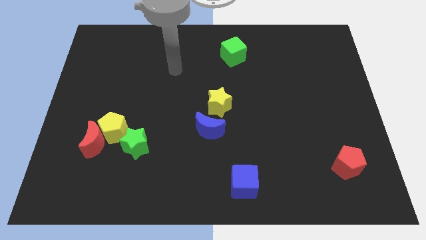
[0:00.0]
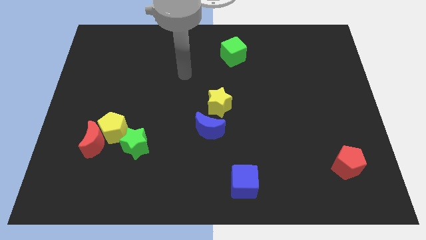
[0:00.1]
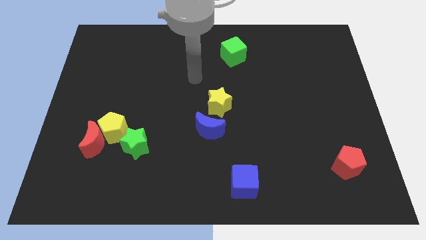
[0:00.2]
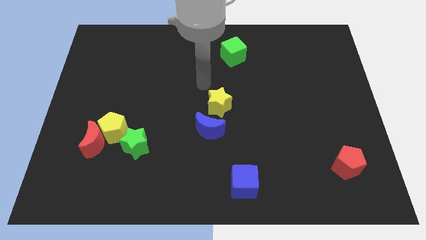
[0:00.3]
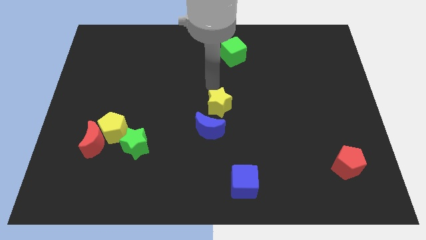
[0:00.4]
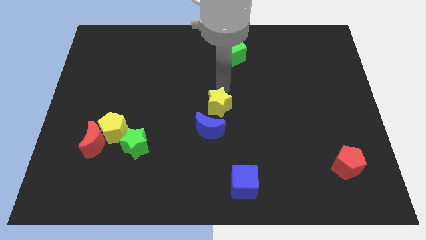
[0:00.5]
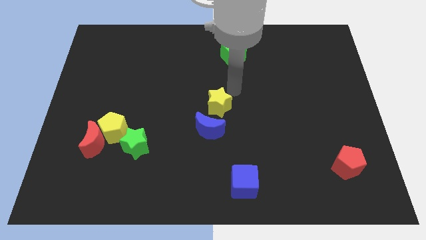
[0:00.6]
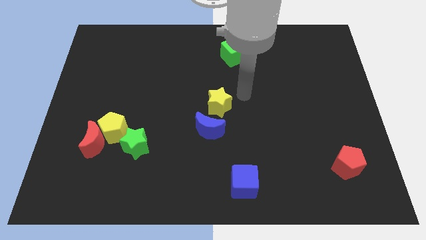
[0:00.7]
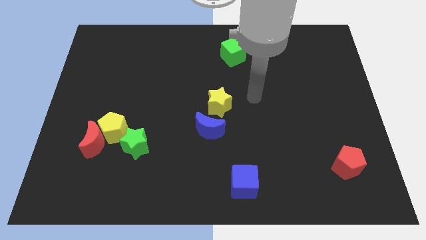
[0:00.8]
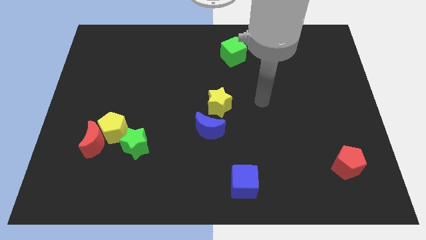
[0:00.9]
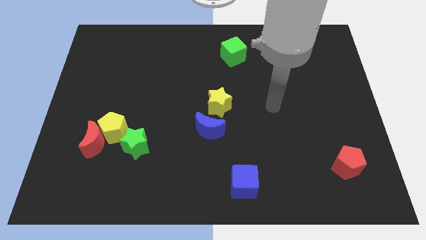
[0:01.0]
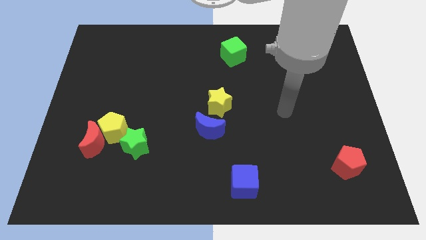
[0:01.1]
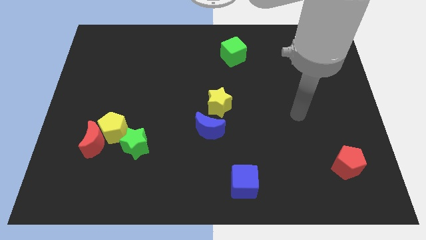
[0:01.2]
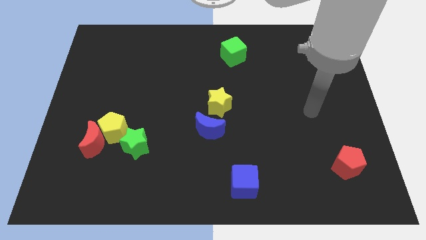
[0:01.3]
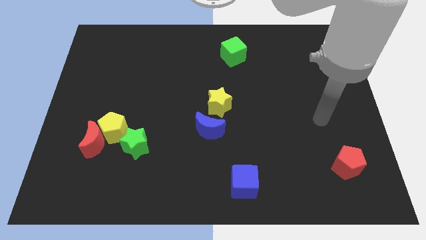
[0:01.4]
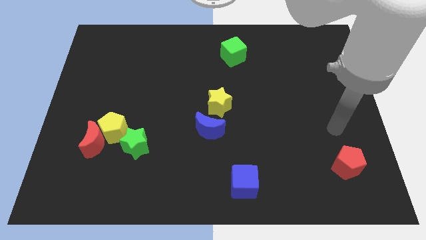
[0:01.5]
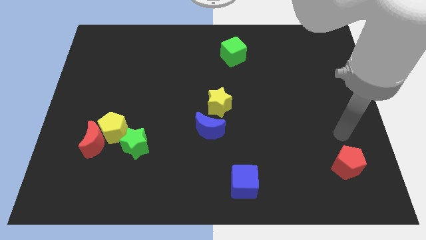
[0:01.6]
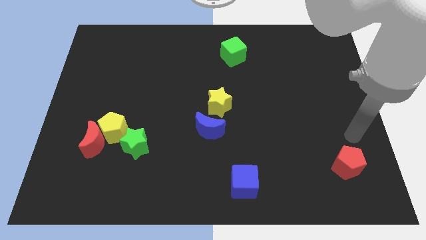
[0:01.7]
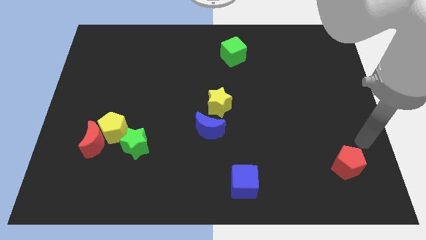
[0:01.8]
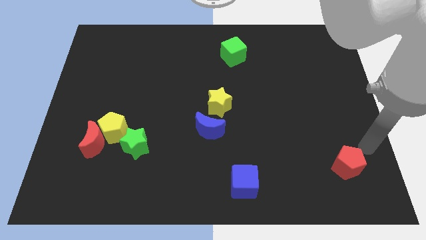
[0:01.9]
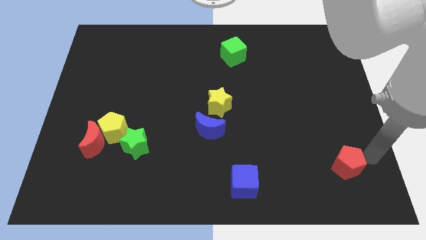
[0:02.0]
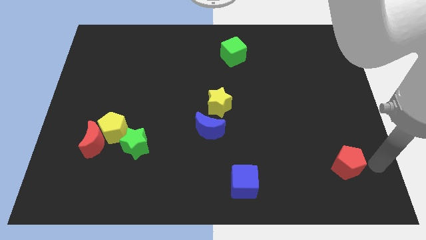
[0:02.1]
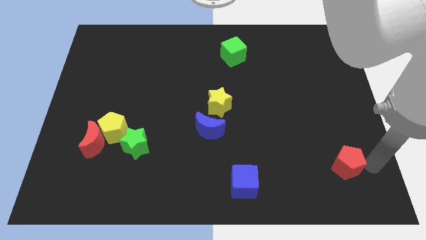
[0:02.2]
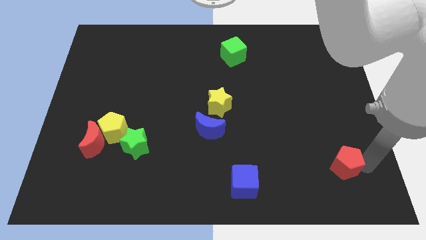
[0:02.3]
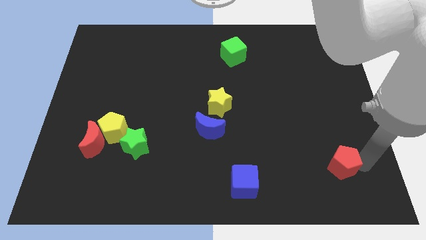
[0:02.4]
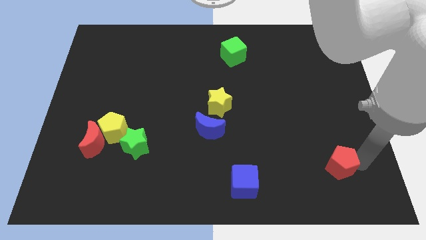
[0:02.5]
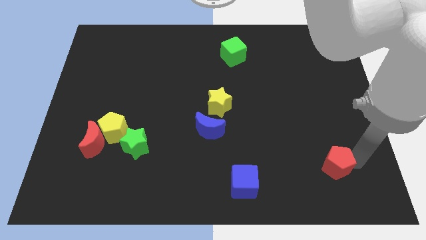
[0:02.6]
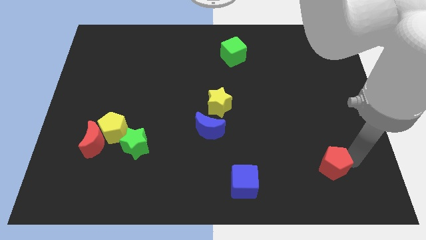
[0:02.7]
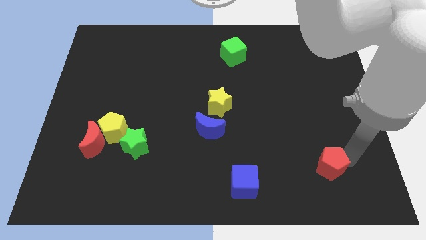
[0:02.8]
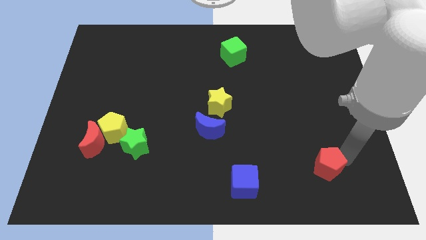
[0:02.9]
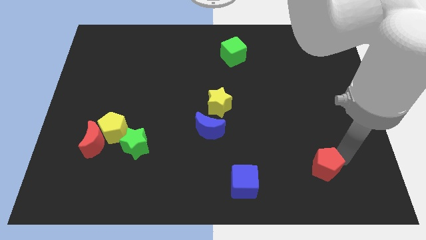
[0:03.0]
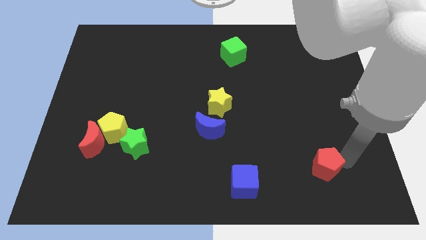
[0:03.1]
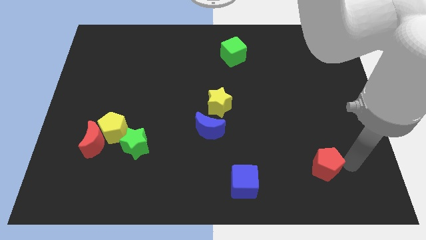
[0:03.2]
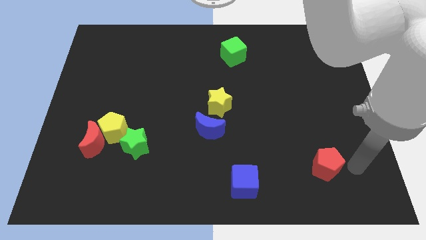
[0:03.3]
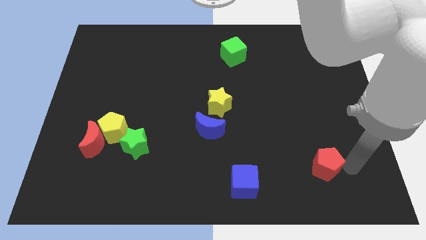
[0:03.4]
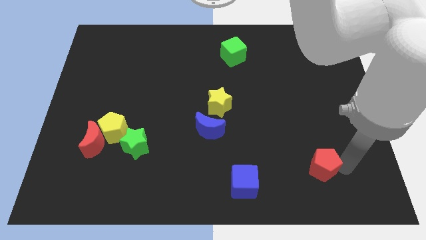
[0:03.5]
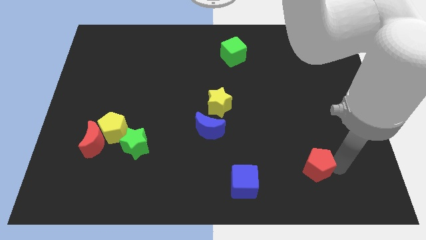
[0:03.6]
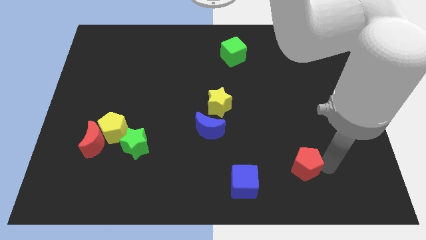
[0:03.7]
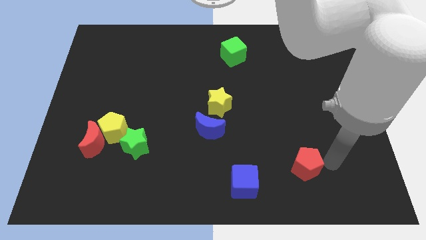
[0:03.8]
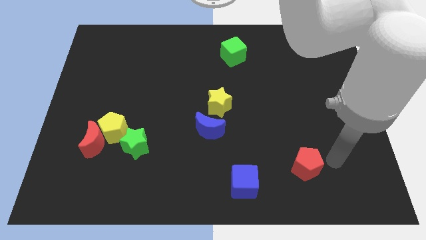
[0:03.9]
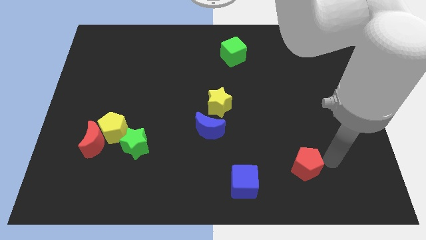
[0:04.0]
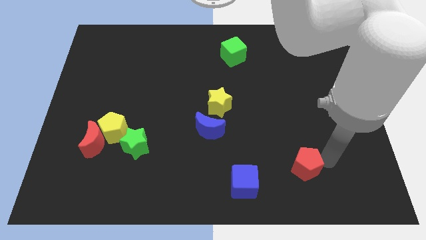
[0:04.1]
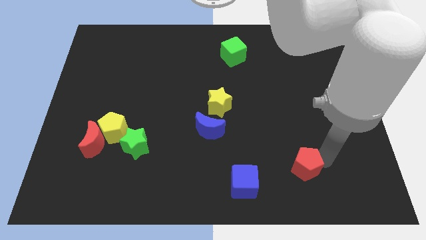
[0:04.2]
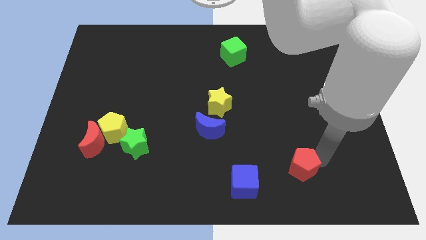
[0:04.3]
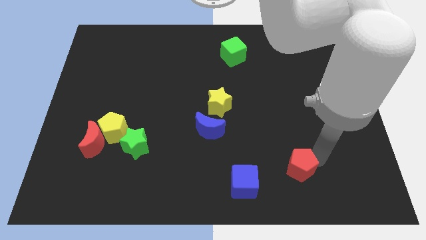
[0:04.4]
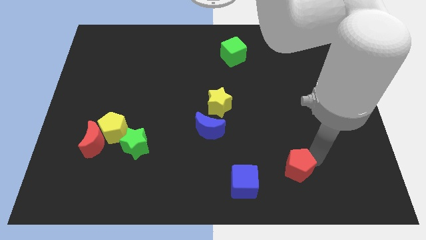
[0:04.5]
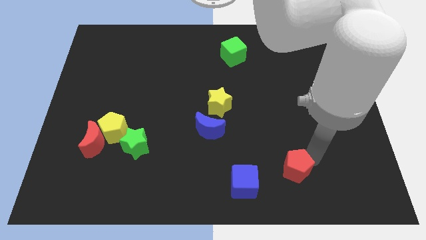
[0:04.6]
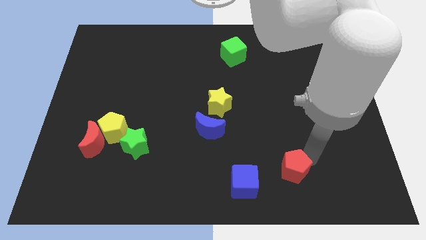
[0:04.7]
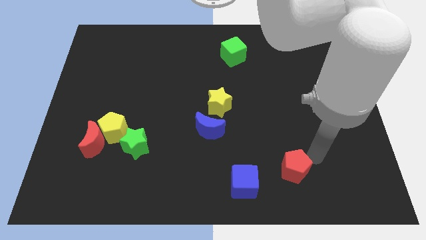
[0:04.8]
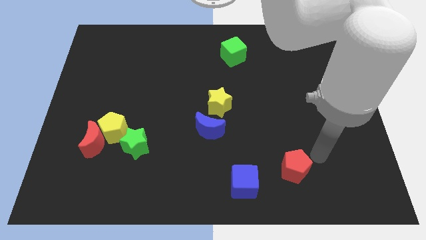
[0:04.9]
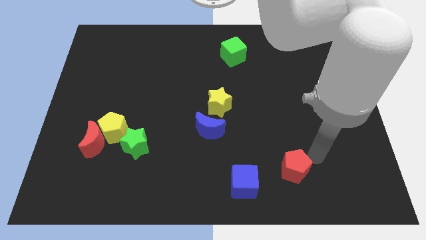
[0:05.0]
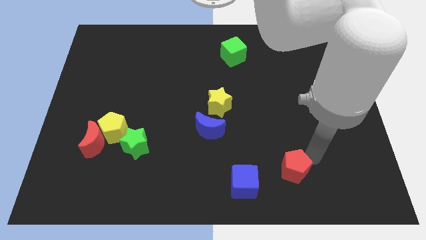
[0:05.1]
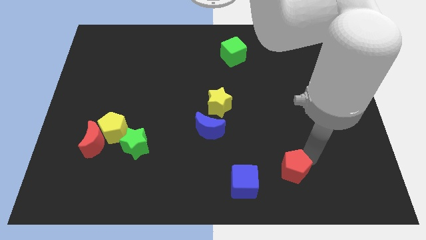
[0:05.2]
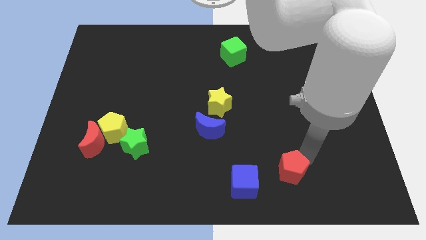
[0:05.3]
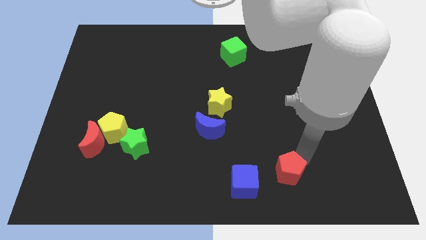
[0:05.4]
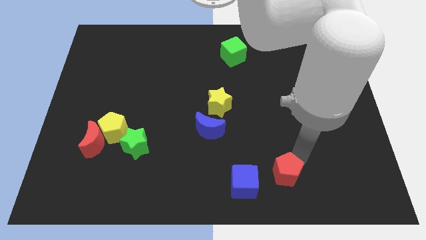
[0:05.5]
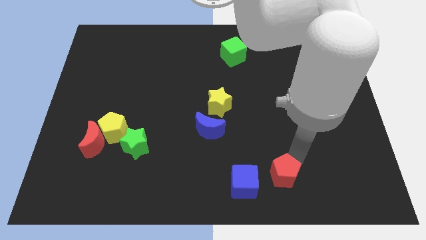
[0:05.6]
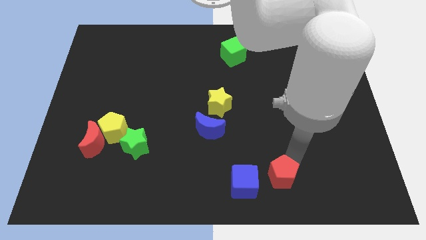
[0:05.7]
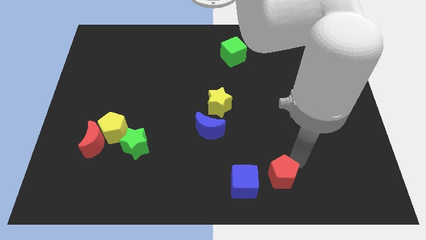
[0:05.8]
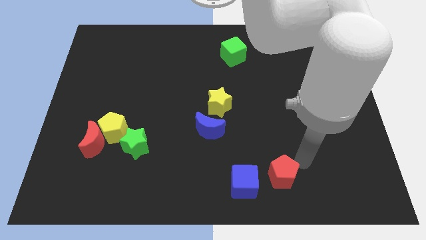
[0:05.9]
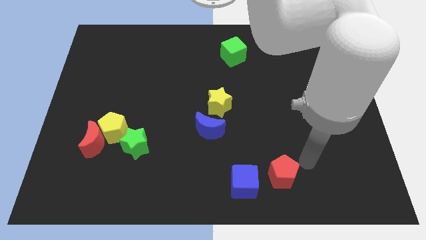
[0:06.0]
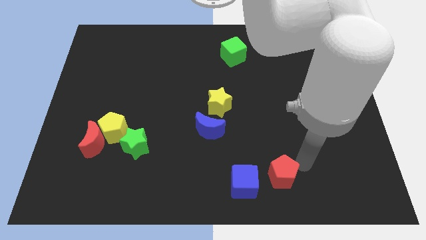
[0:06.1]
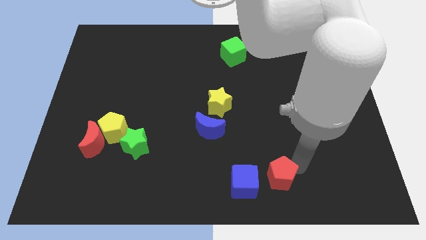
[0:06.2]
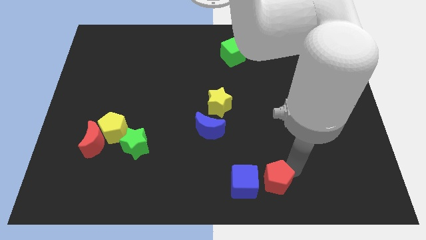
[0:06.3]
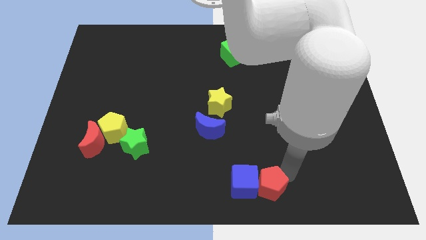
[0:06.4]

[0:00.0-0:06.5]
put the red pentagon next to the blue cube
